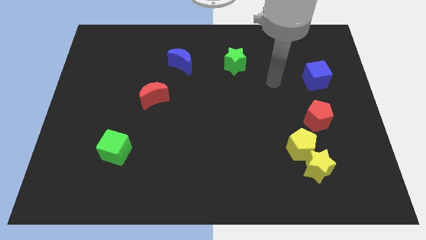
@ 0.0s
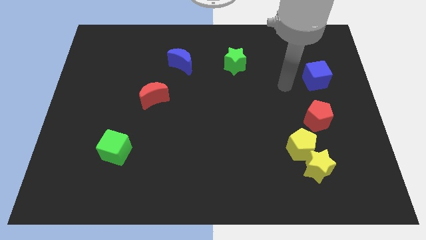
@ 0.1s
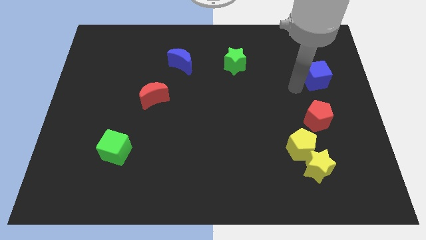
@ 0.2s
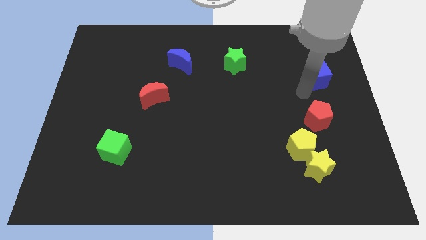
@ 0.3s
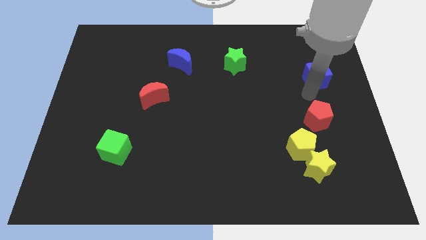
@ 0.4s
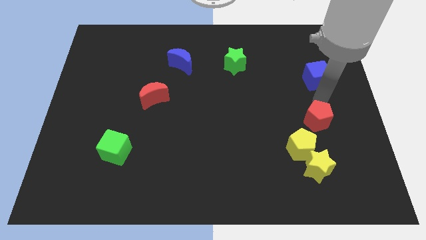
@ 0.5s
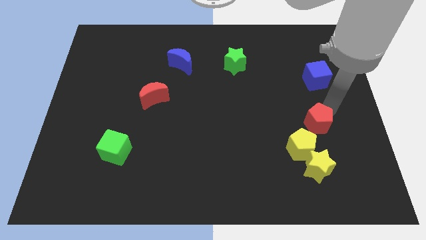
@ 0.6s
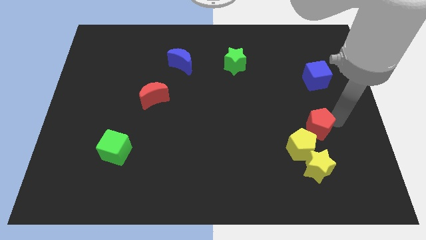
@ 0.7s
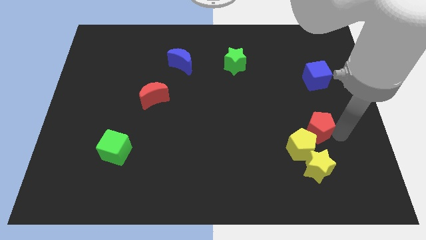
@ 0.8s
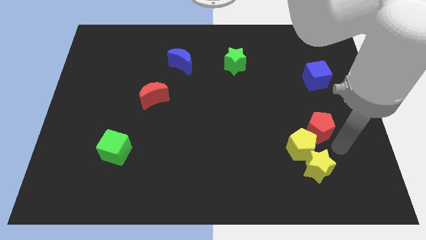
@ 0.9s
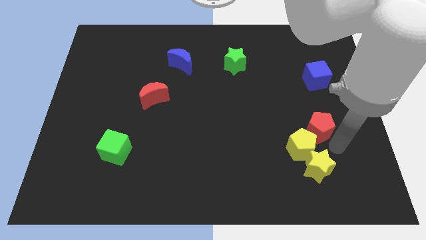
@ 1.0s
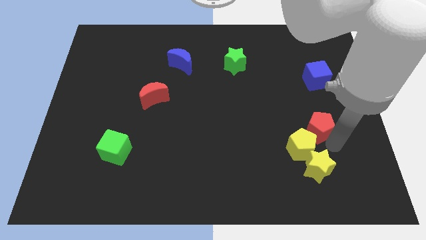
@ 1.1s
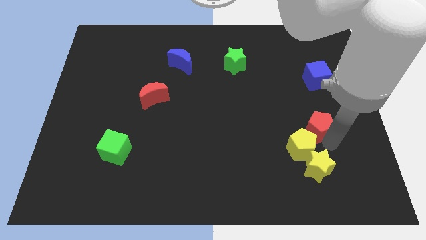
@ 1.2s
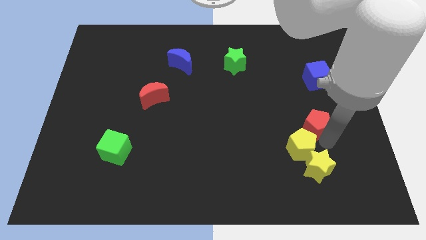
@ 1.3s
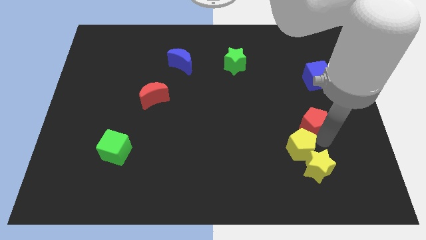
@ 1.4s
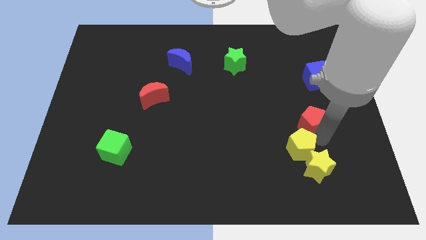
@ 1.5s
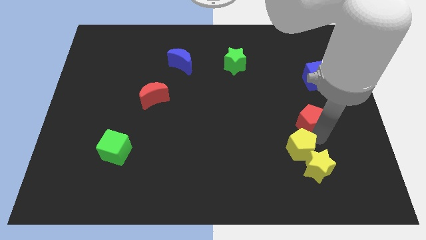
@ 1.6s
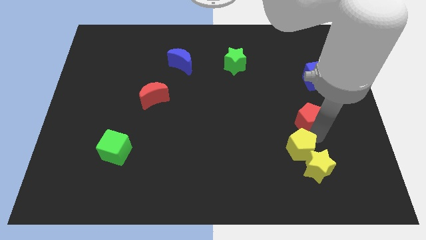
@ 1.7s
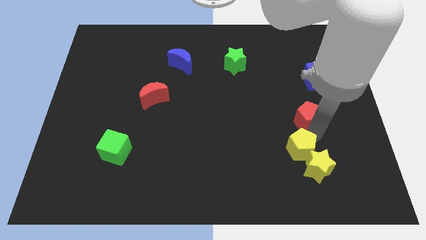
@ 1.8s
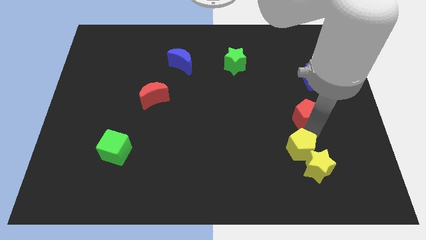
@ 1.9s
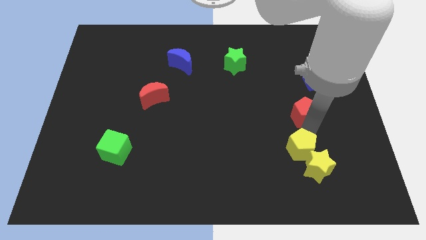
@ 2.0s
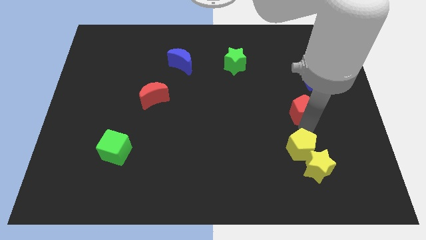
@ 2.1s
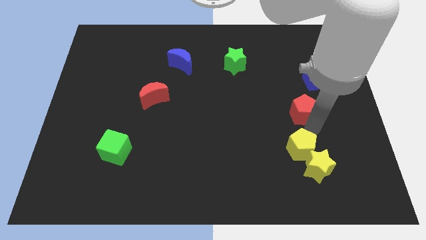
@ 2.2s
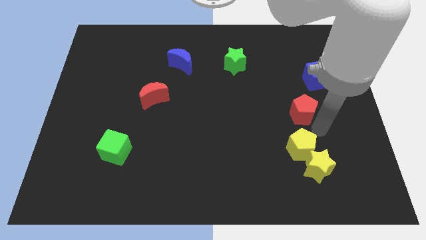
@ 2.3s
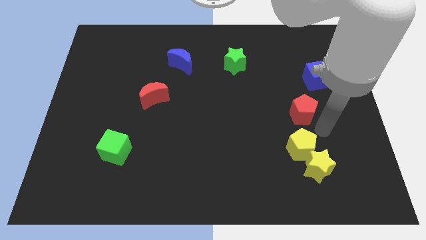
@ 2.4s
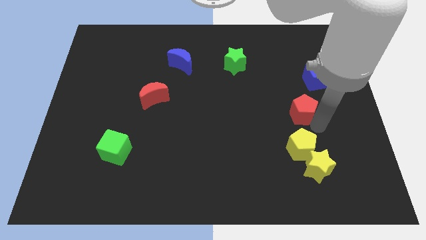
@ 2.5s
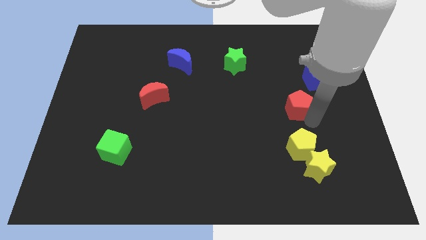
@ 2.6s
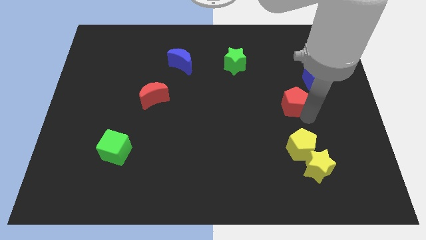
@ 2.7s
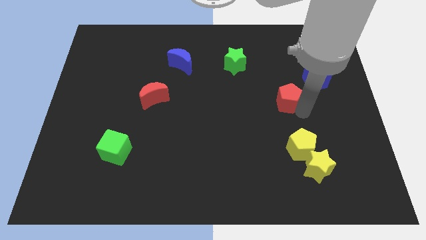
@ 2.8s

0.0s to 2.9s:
move the red pentagon upwards and left diagonally a little bit

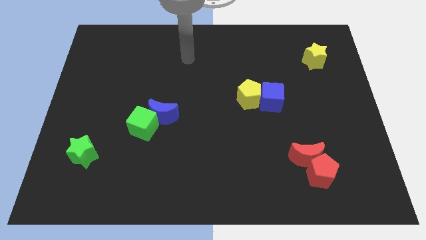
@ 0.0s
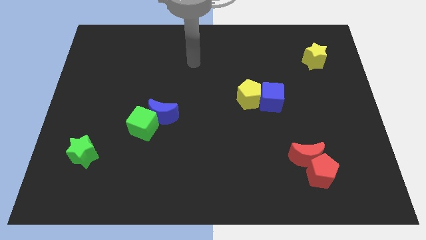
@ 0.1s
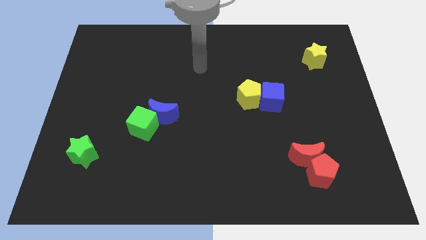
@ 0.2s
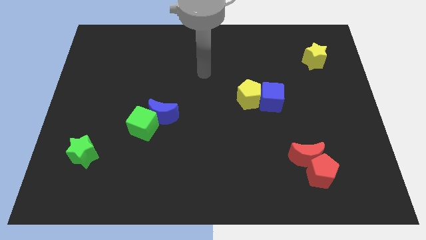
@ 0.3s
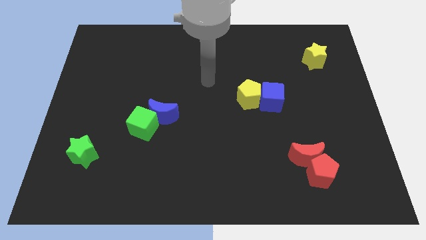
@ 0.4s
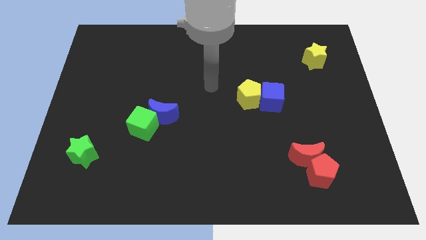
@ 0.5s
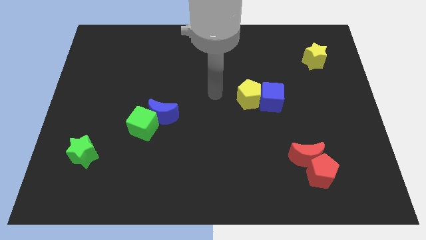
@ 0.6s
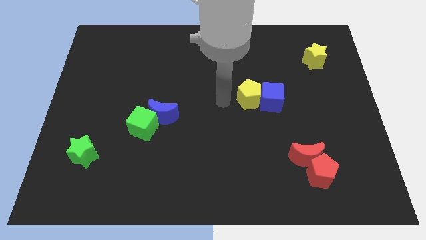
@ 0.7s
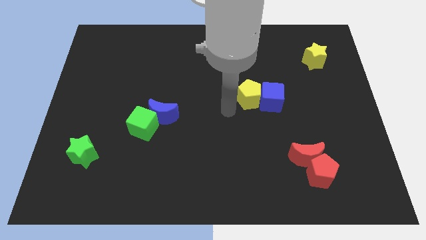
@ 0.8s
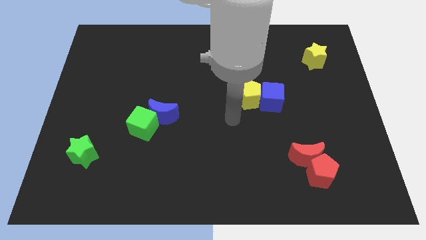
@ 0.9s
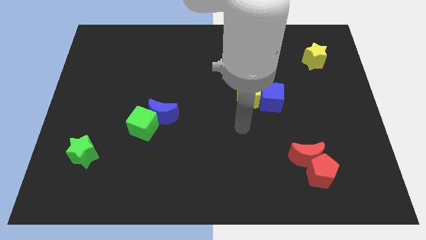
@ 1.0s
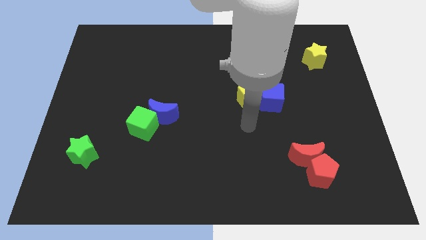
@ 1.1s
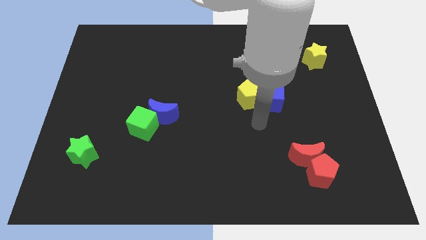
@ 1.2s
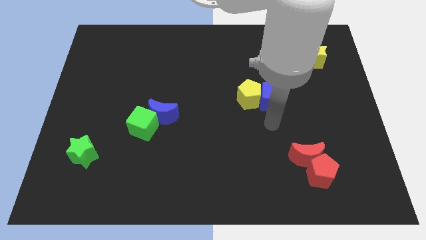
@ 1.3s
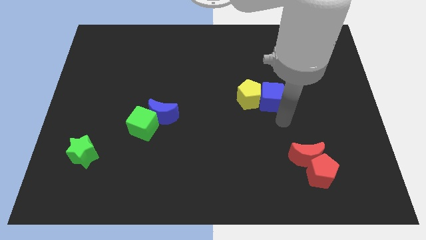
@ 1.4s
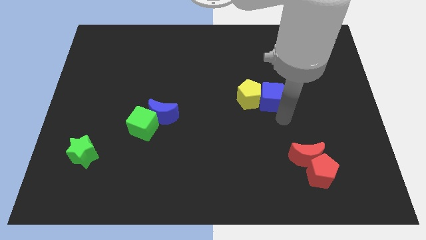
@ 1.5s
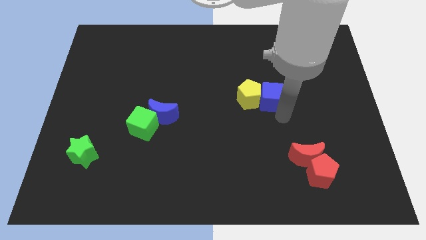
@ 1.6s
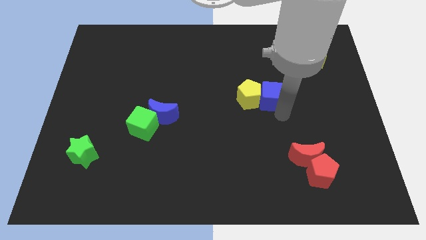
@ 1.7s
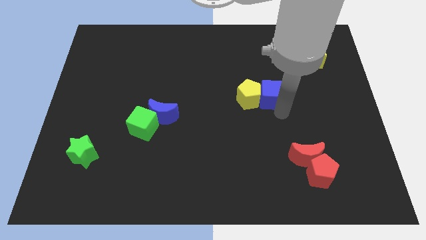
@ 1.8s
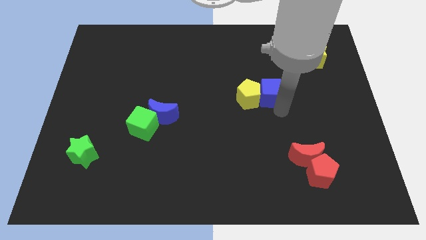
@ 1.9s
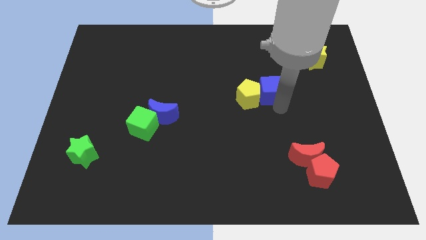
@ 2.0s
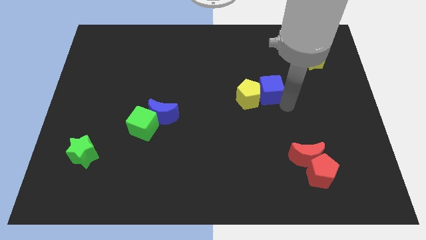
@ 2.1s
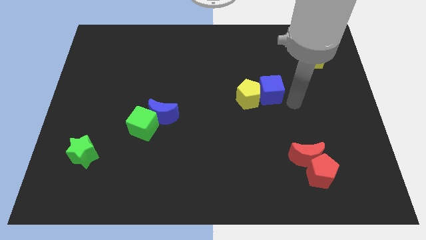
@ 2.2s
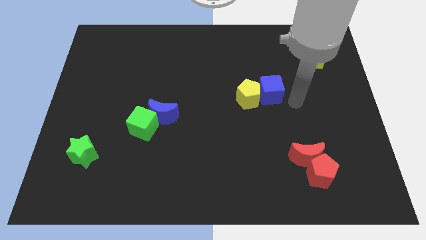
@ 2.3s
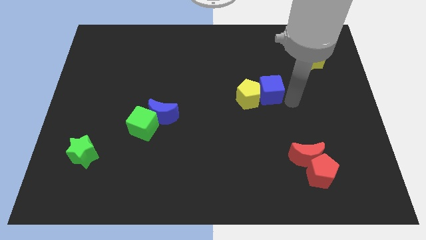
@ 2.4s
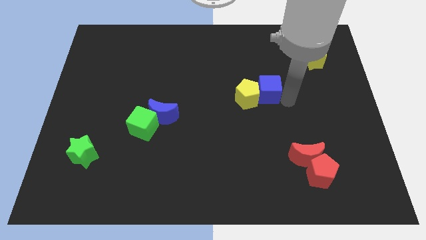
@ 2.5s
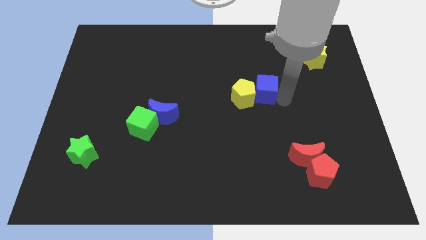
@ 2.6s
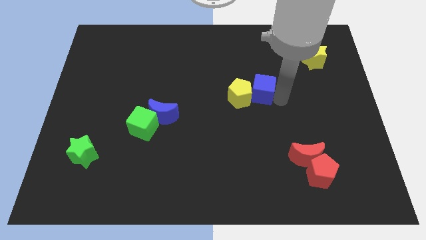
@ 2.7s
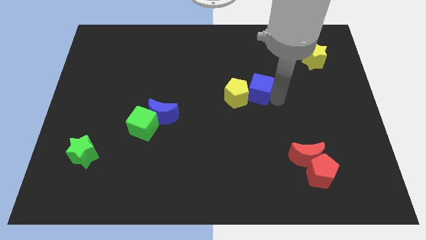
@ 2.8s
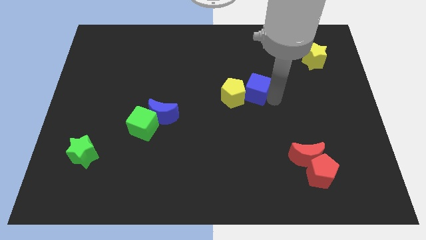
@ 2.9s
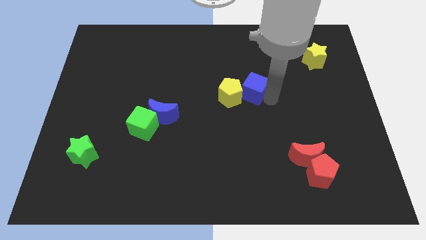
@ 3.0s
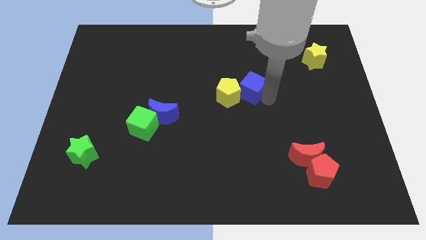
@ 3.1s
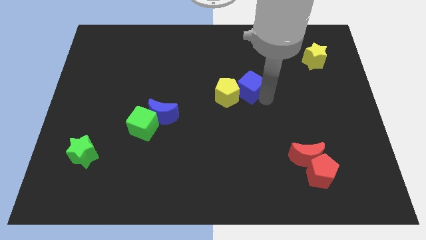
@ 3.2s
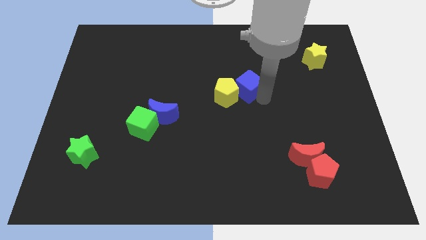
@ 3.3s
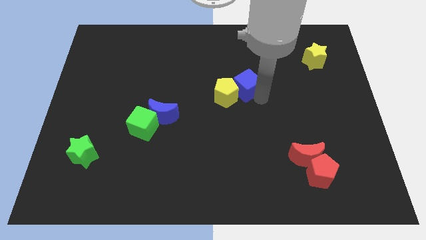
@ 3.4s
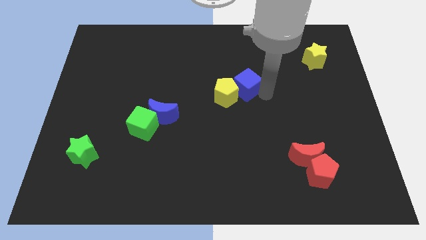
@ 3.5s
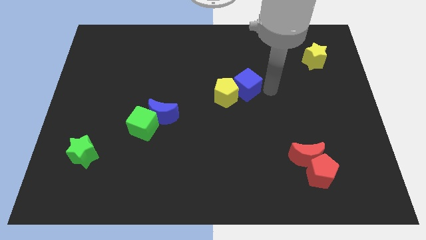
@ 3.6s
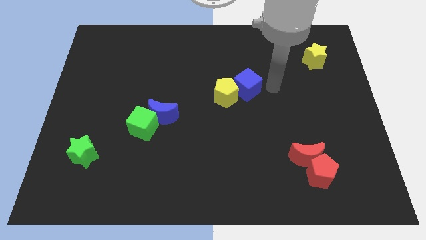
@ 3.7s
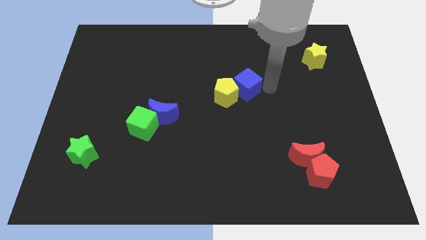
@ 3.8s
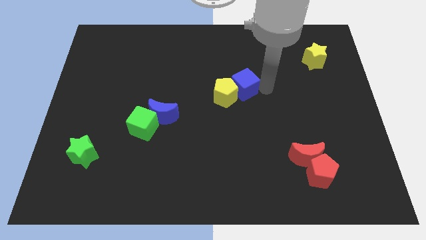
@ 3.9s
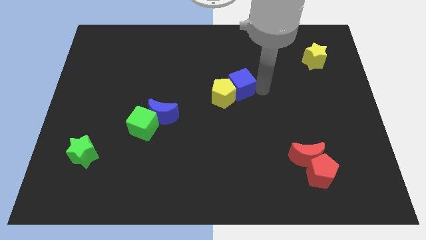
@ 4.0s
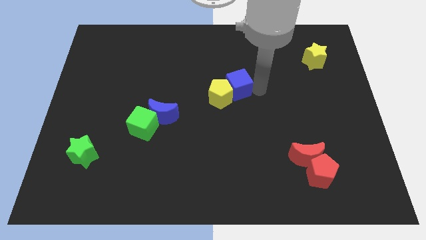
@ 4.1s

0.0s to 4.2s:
slide the blue cube to the left a little

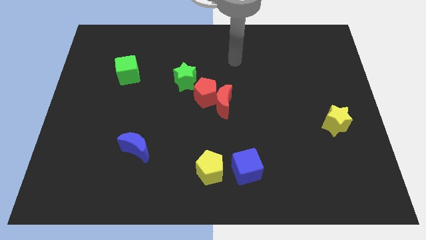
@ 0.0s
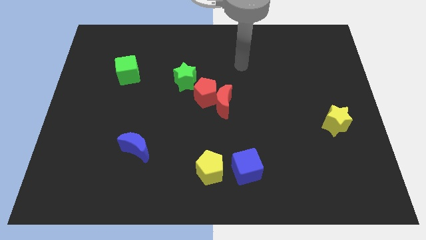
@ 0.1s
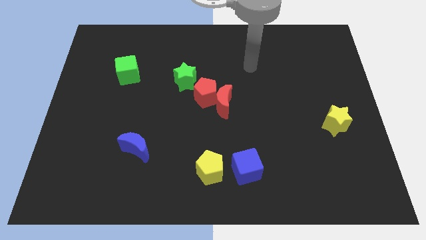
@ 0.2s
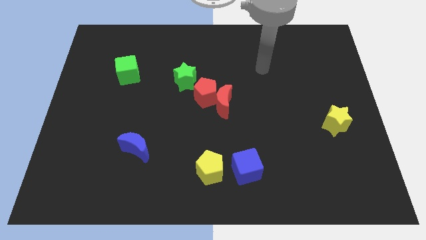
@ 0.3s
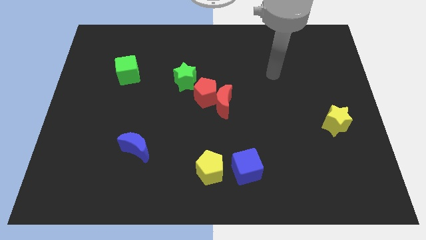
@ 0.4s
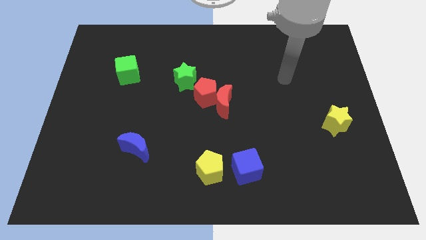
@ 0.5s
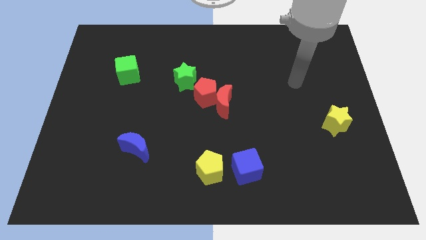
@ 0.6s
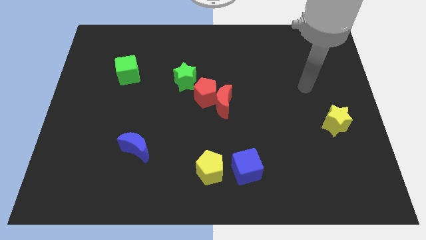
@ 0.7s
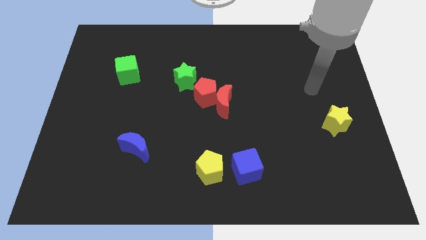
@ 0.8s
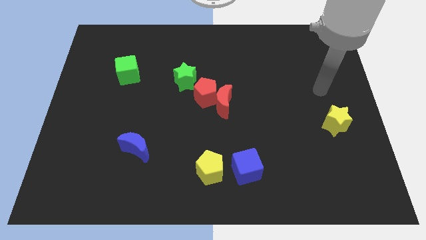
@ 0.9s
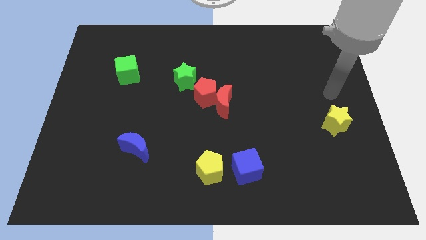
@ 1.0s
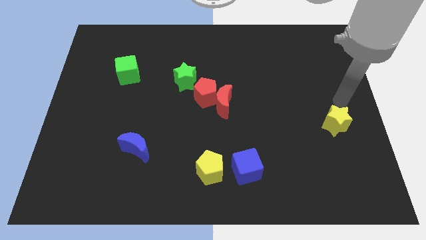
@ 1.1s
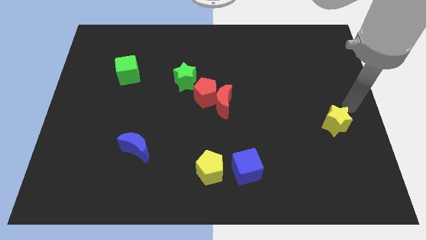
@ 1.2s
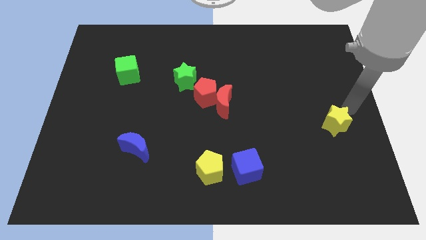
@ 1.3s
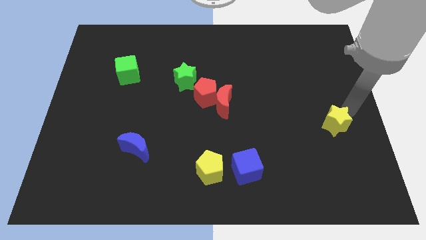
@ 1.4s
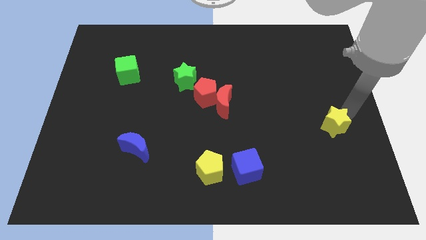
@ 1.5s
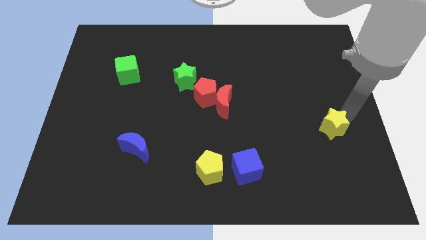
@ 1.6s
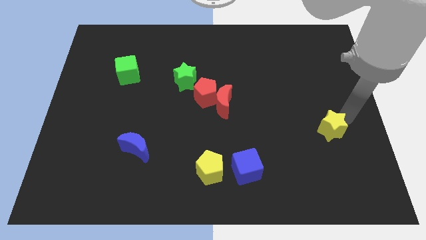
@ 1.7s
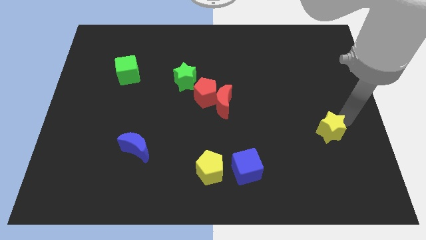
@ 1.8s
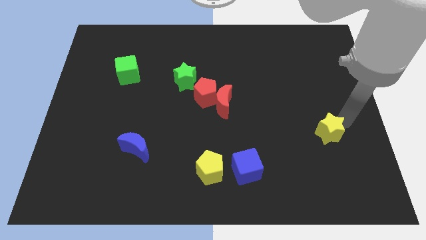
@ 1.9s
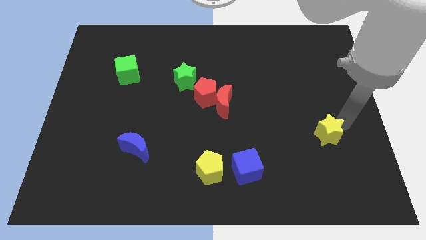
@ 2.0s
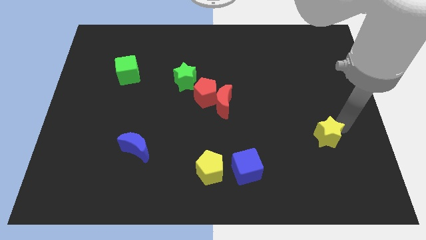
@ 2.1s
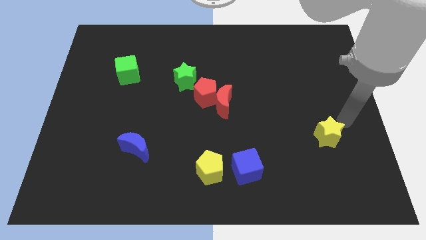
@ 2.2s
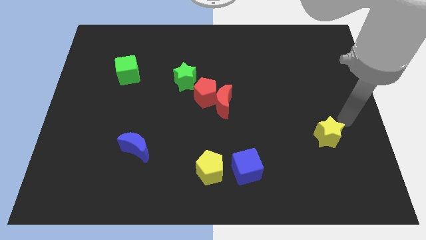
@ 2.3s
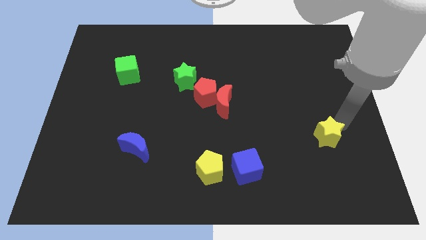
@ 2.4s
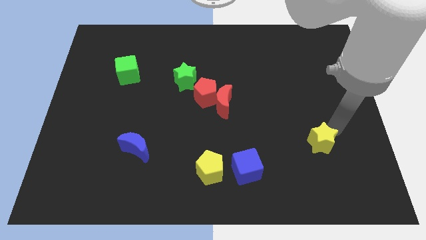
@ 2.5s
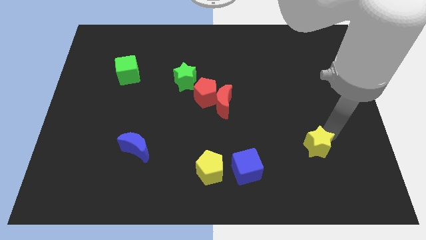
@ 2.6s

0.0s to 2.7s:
slightly move the yellow star down and to the left diagonally
